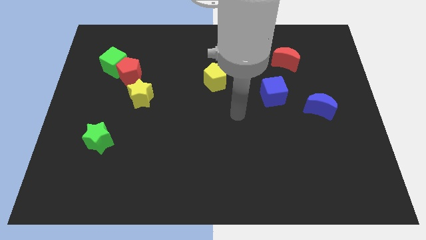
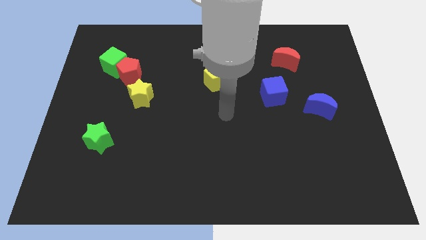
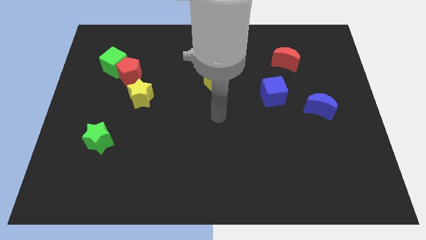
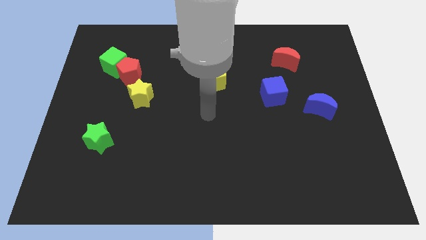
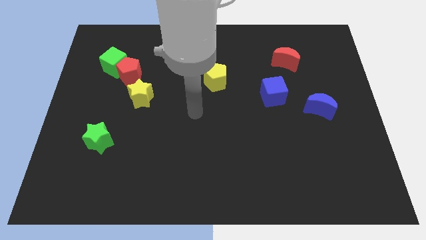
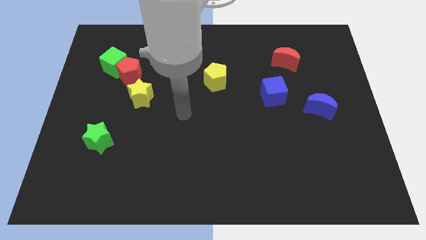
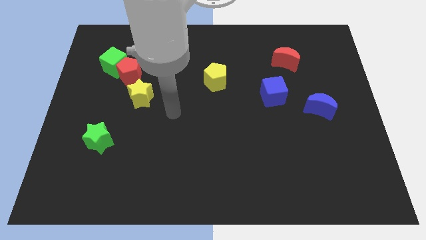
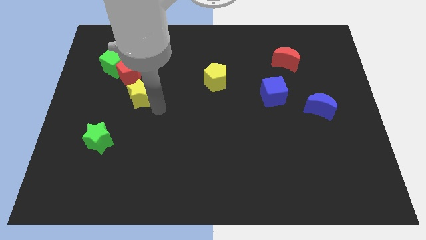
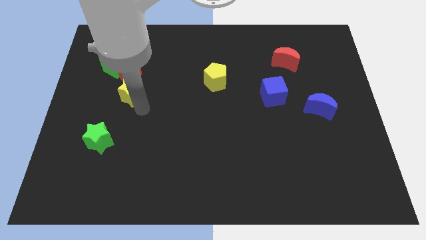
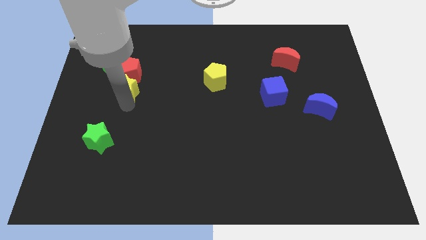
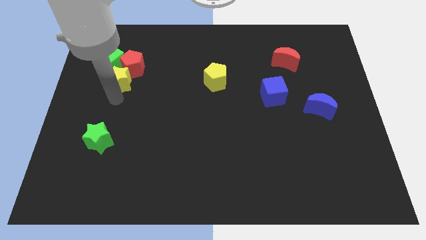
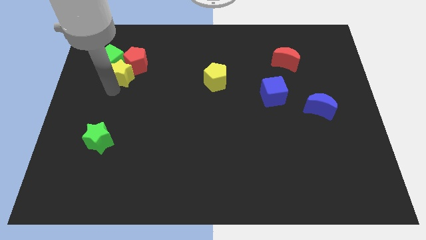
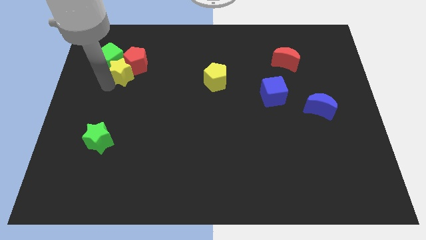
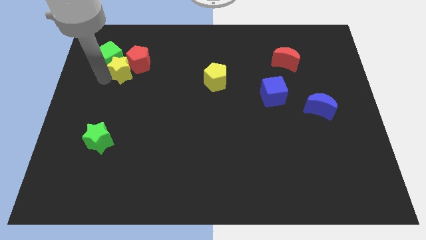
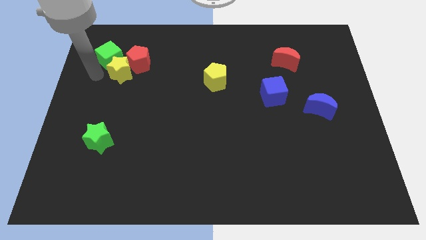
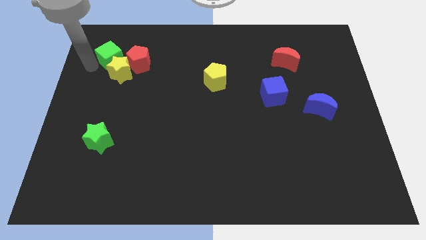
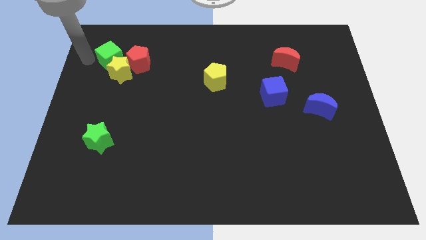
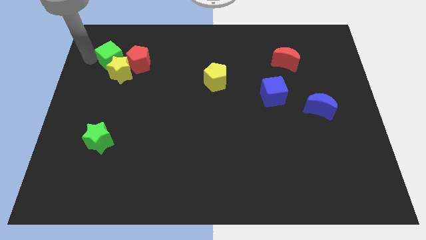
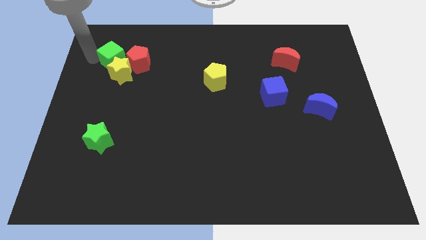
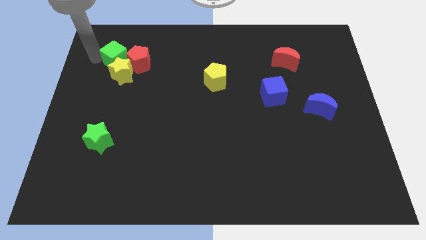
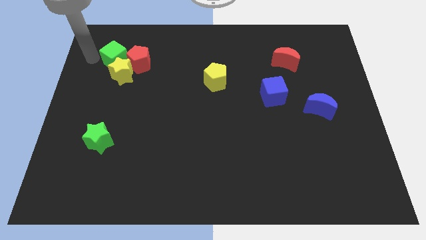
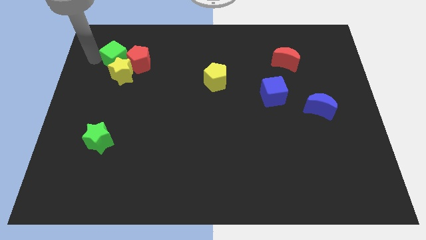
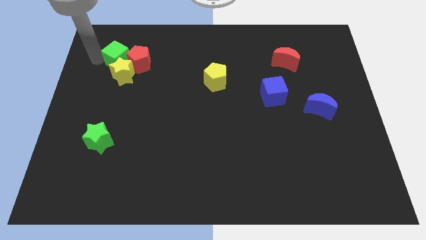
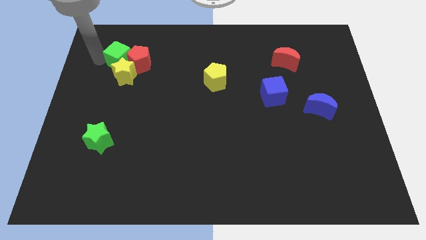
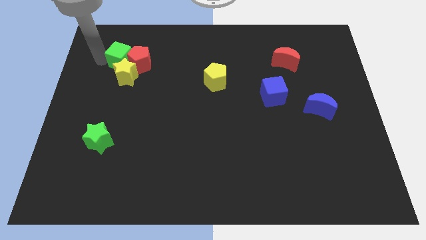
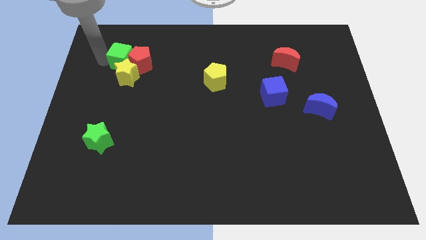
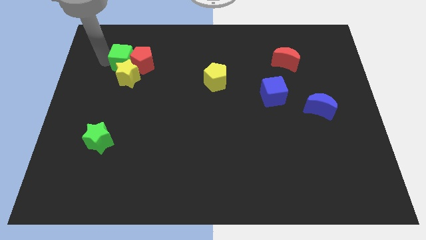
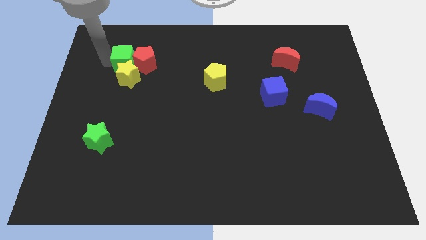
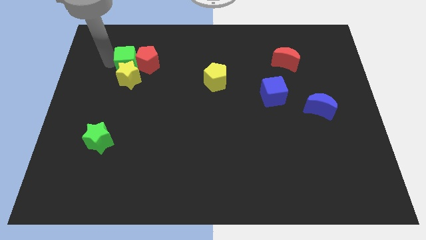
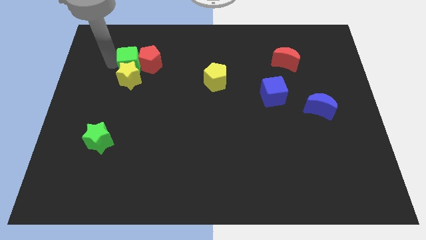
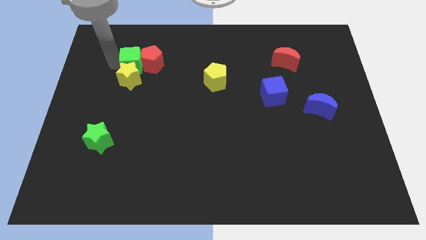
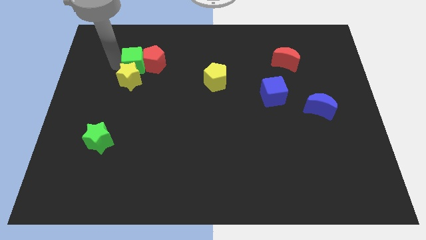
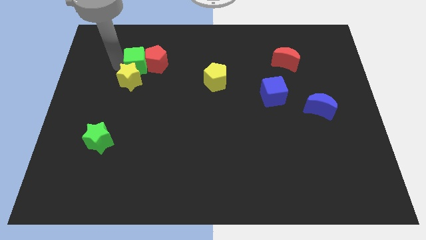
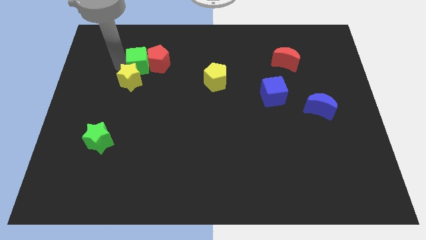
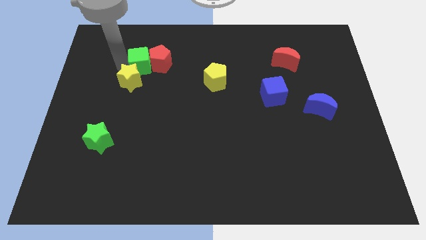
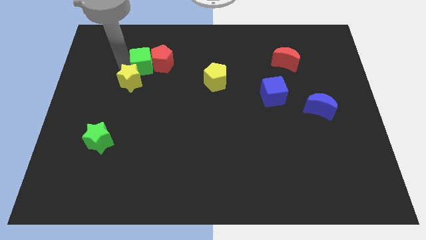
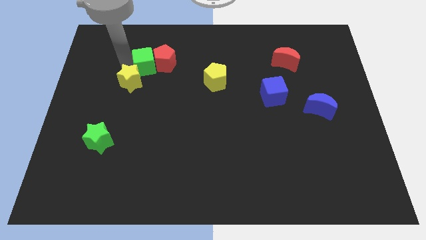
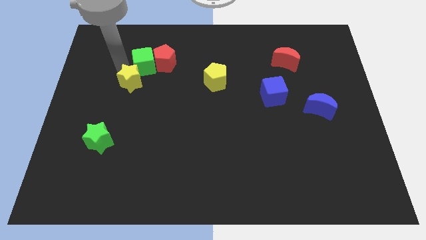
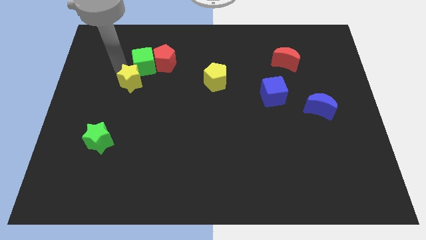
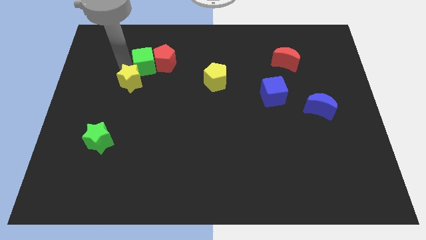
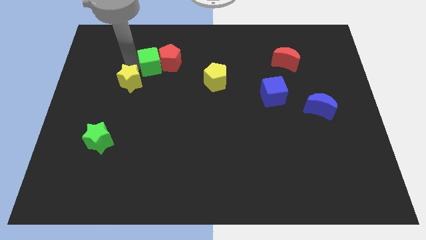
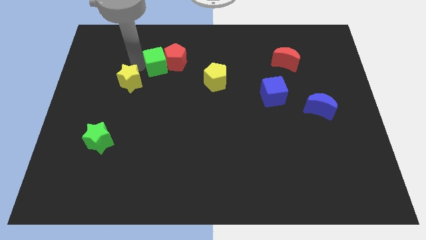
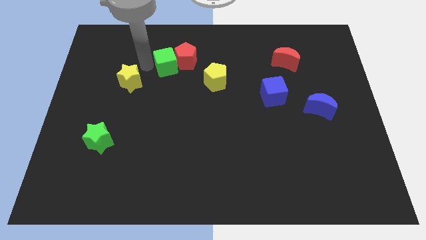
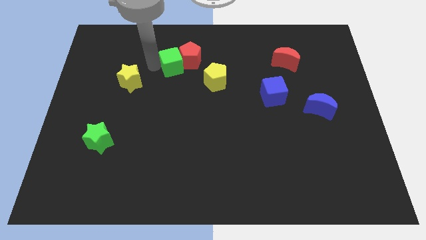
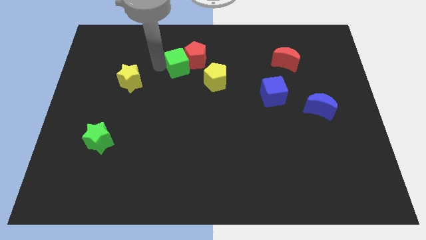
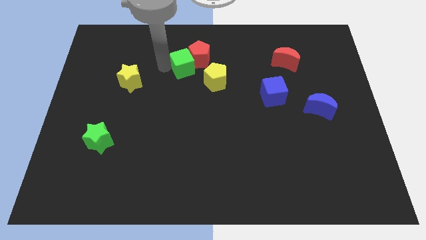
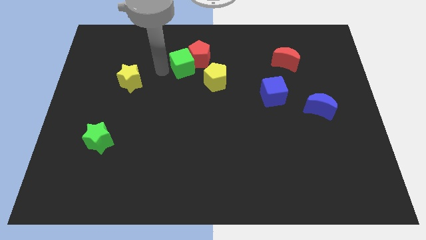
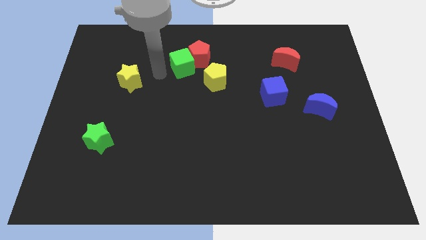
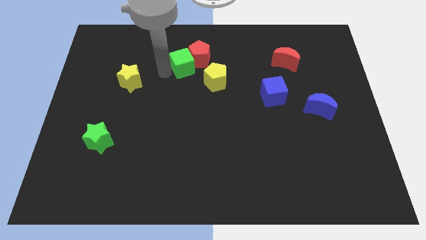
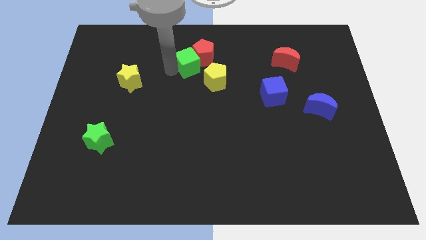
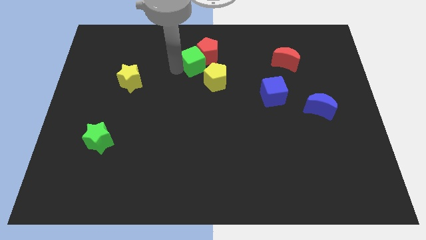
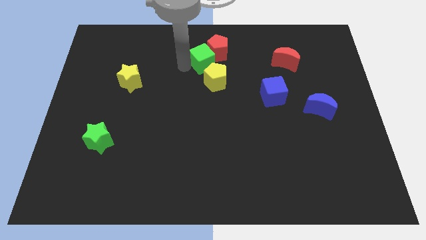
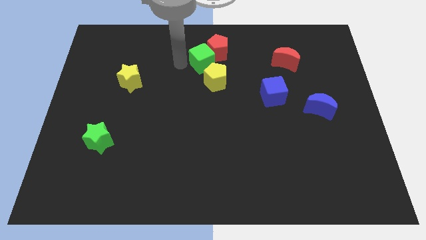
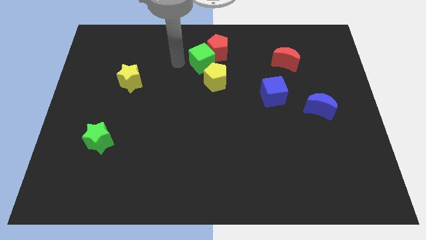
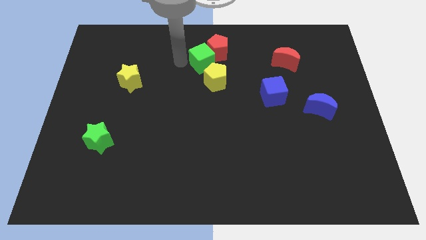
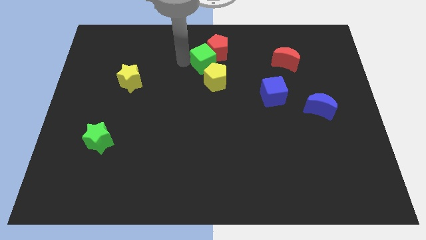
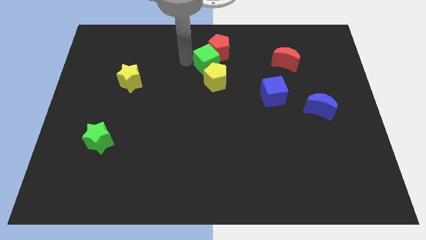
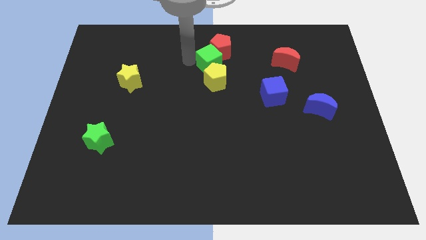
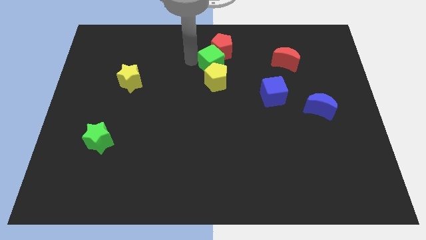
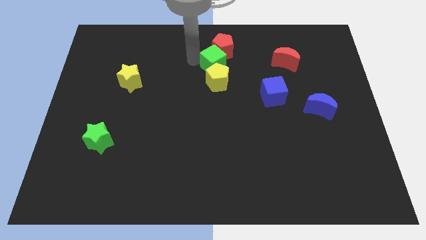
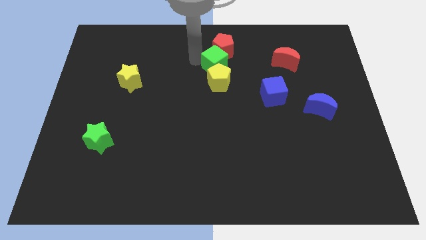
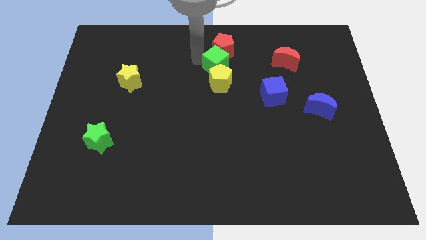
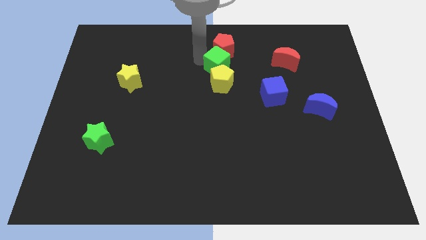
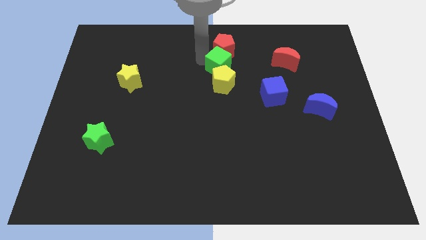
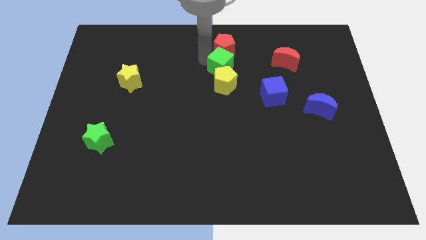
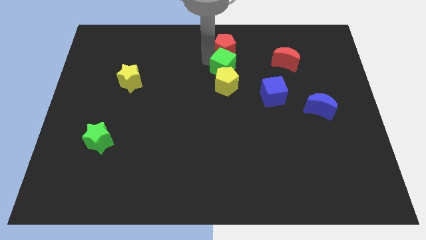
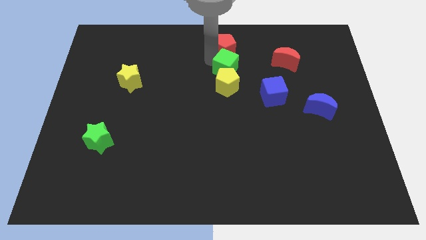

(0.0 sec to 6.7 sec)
move the green cube just left of the red moon

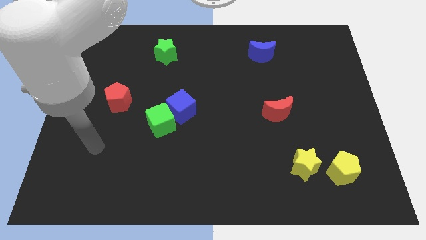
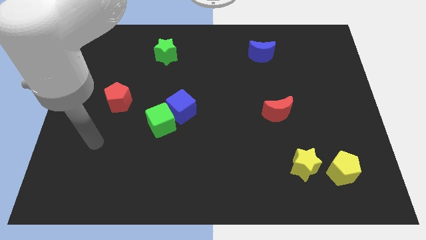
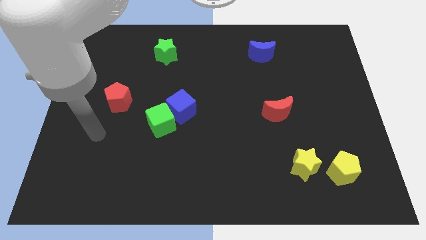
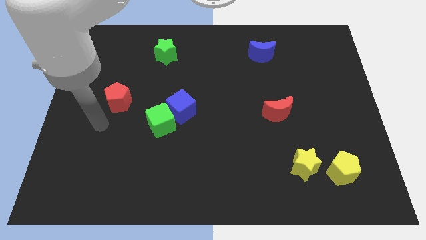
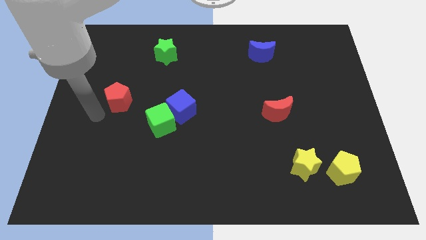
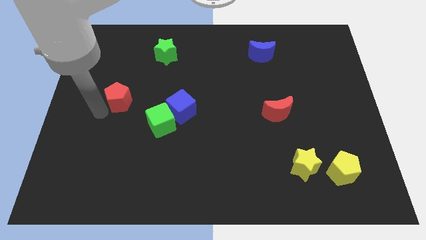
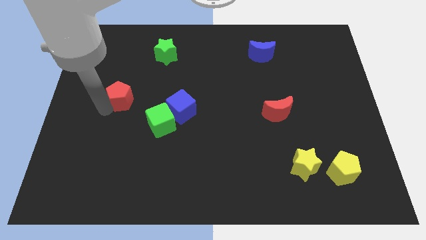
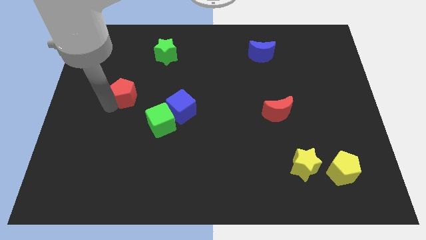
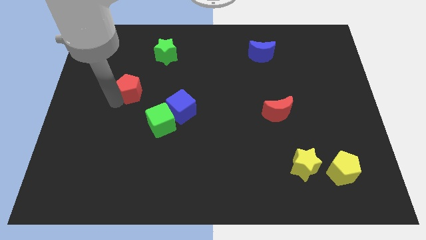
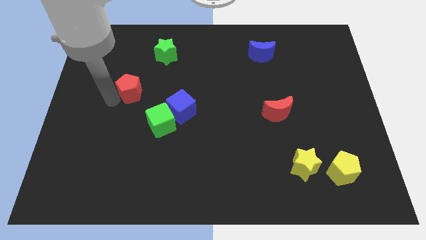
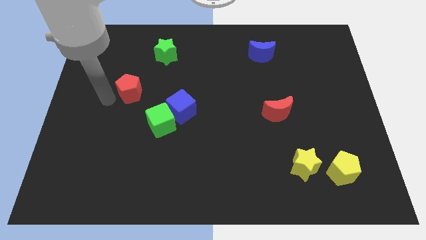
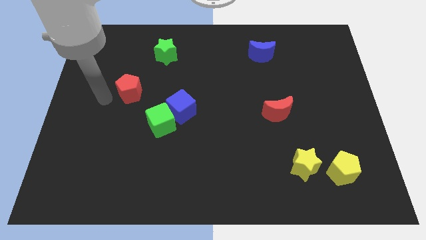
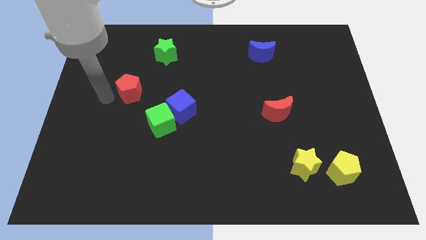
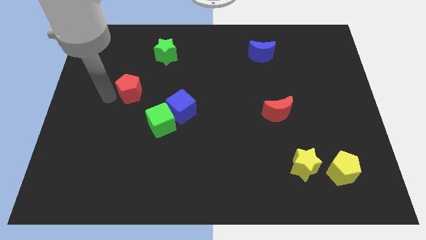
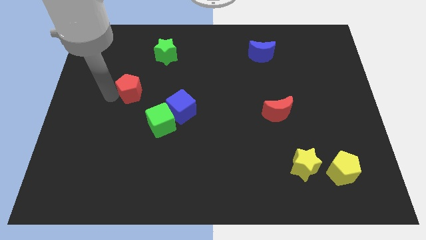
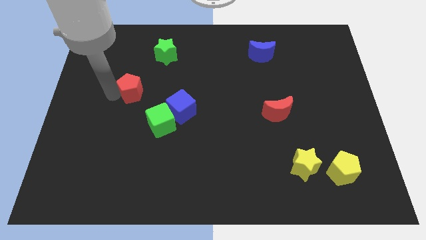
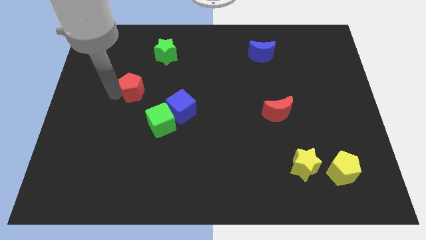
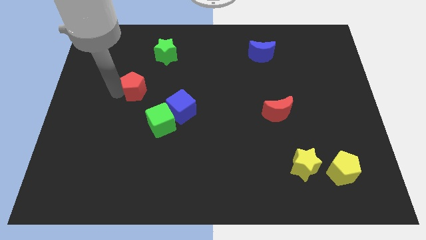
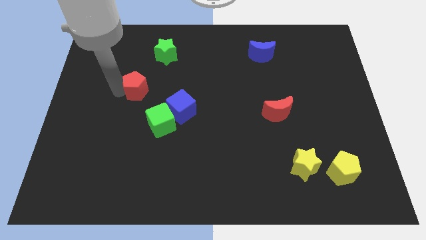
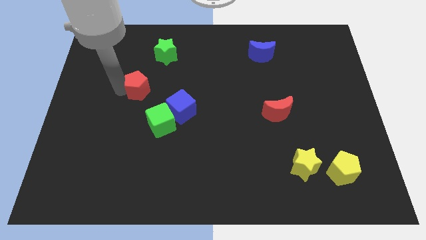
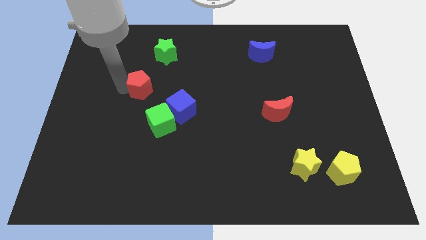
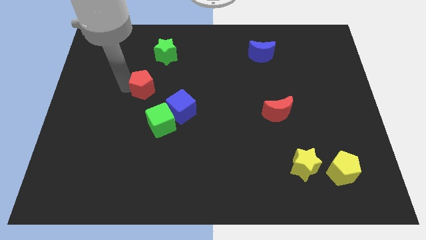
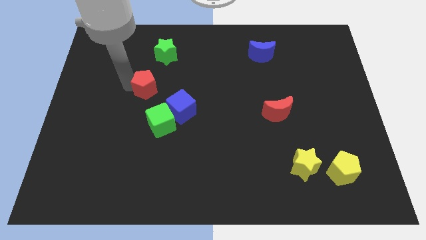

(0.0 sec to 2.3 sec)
move the red pentagon above the green cube
